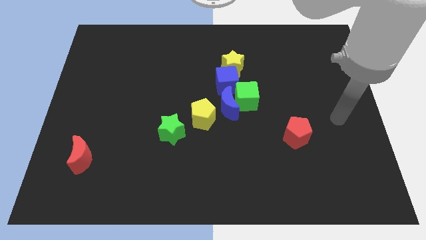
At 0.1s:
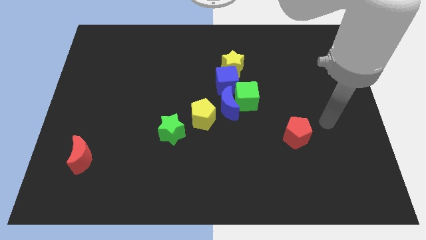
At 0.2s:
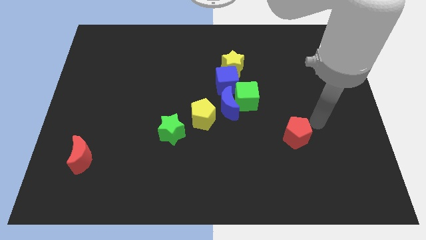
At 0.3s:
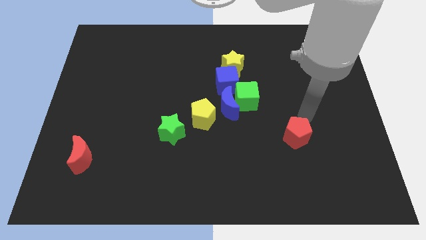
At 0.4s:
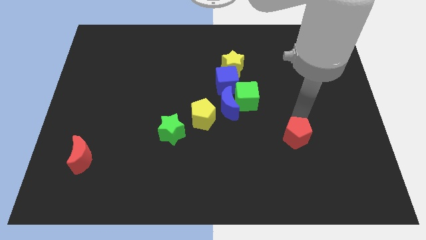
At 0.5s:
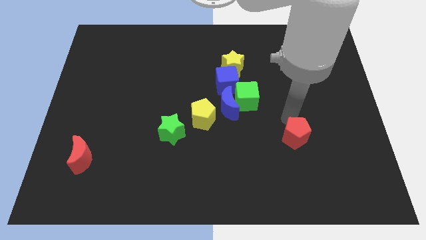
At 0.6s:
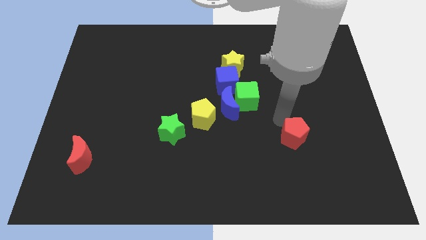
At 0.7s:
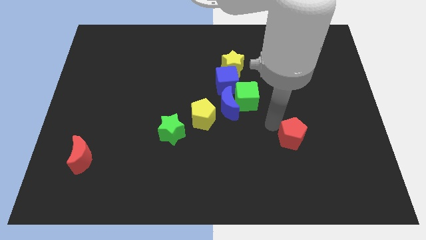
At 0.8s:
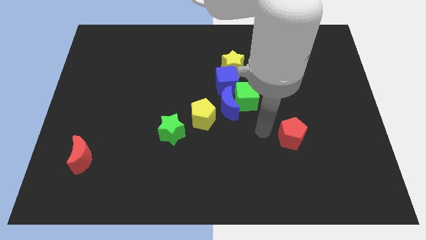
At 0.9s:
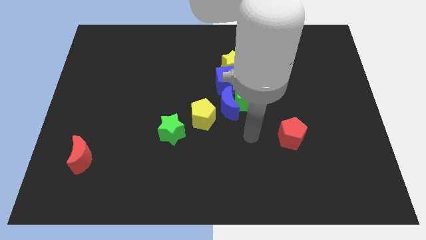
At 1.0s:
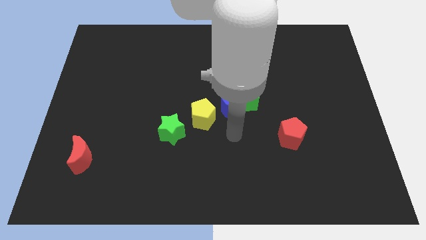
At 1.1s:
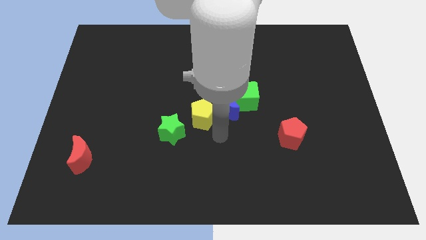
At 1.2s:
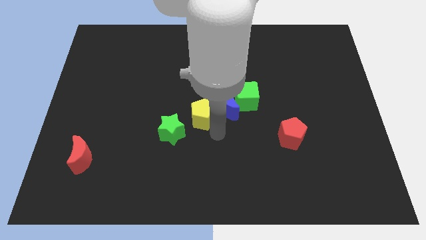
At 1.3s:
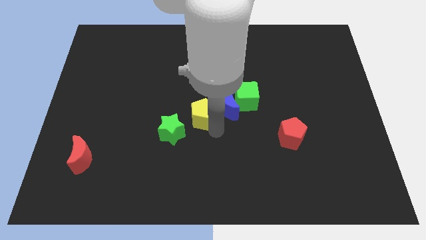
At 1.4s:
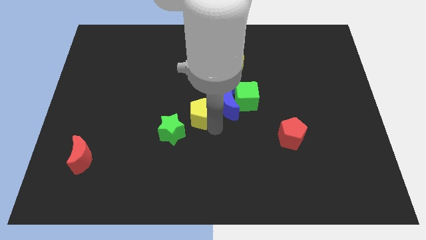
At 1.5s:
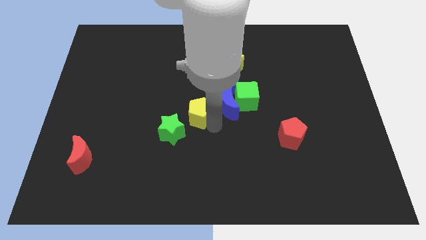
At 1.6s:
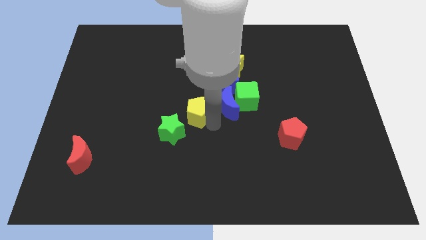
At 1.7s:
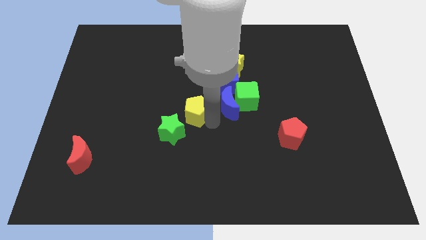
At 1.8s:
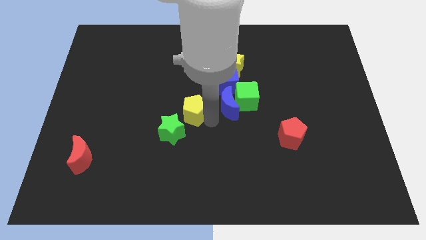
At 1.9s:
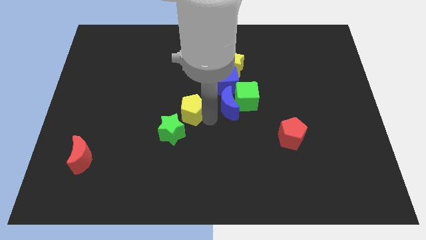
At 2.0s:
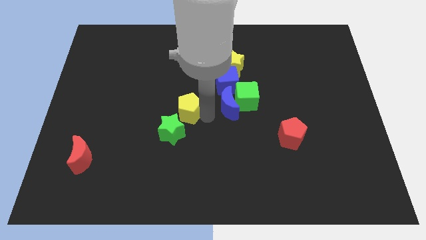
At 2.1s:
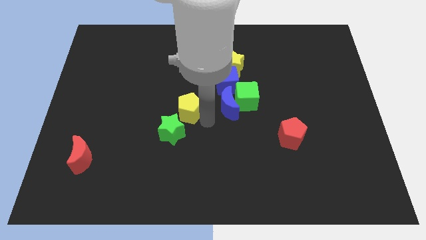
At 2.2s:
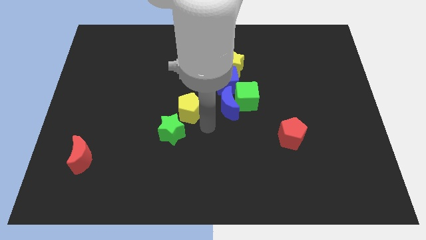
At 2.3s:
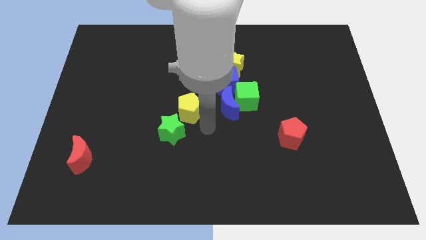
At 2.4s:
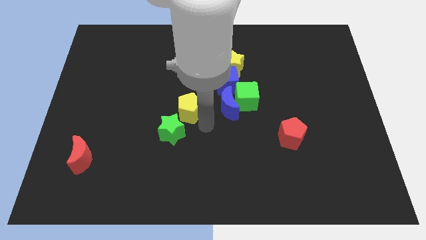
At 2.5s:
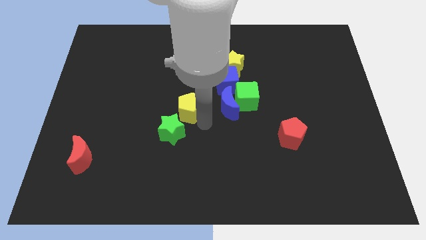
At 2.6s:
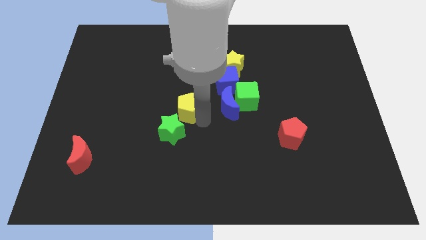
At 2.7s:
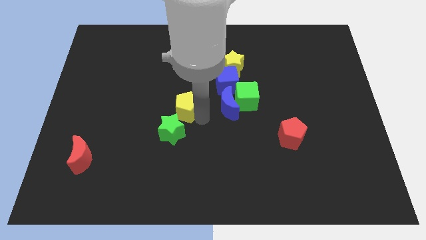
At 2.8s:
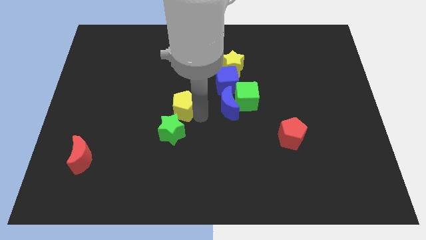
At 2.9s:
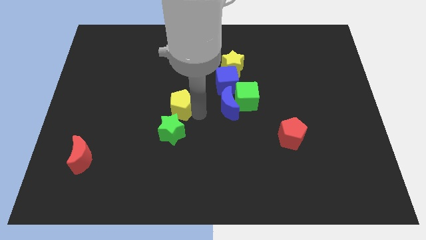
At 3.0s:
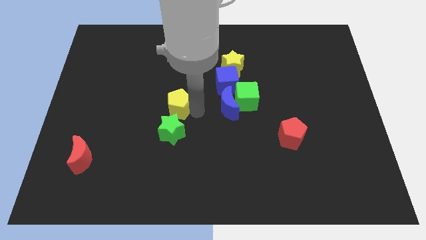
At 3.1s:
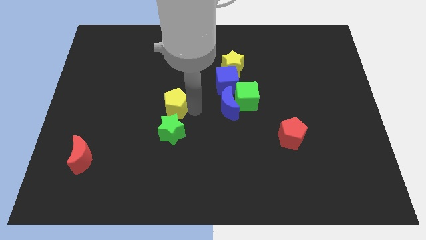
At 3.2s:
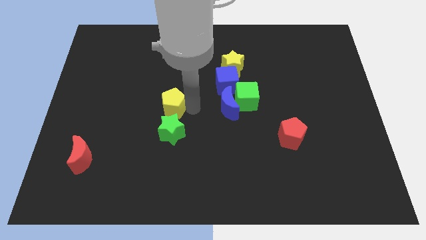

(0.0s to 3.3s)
move the yellow pentagon upwards and left somewhat

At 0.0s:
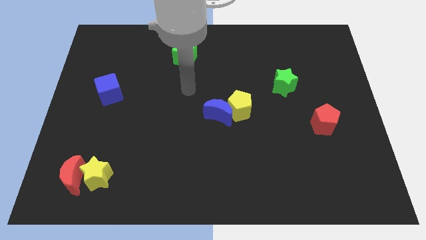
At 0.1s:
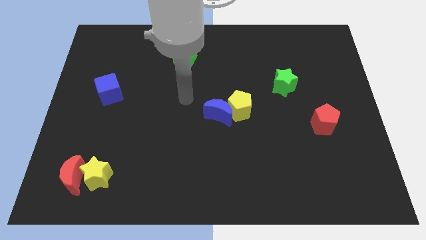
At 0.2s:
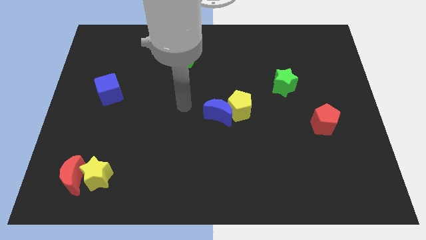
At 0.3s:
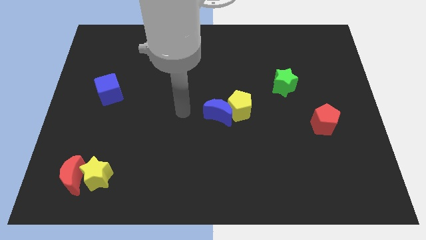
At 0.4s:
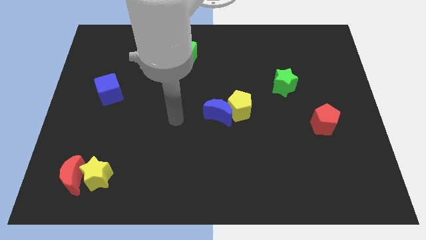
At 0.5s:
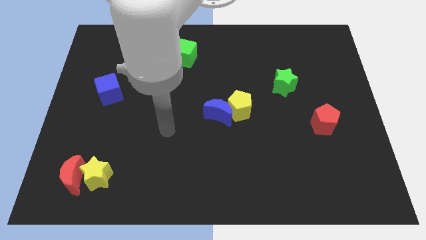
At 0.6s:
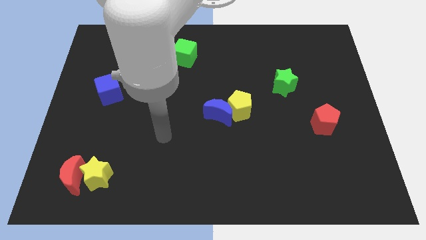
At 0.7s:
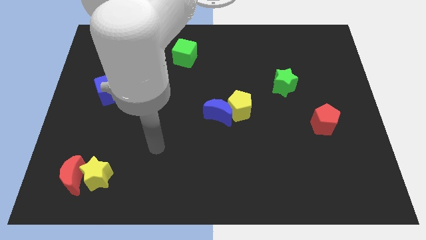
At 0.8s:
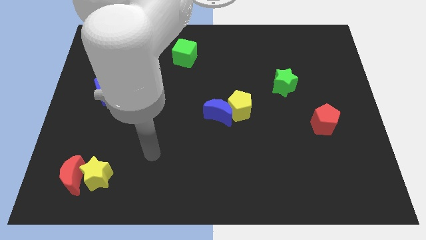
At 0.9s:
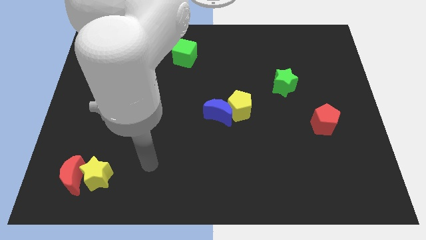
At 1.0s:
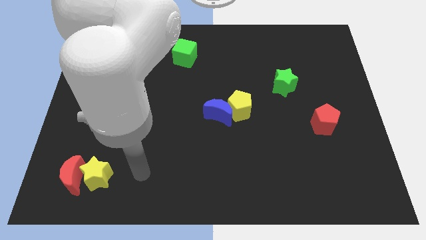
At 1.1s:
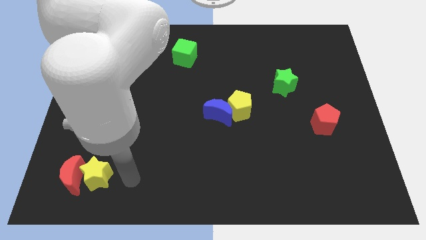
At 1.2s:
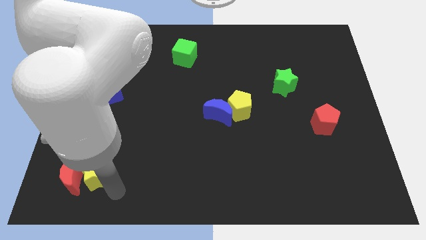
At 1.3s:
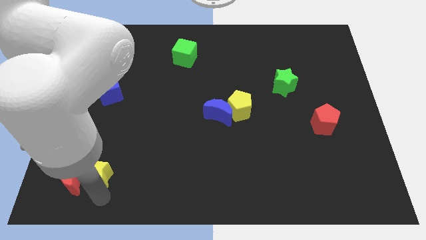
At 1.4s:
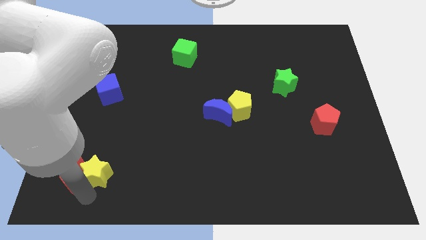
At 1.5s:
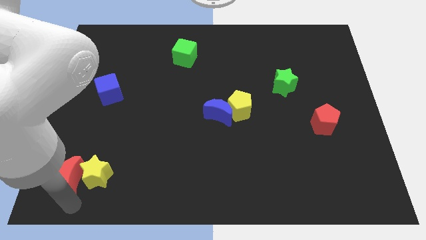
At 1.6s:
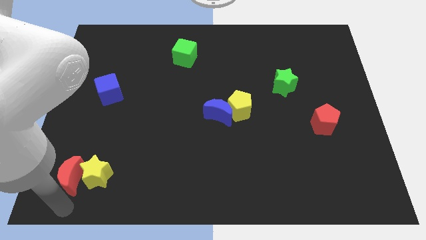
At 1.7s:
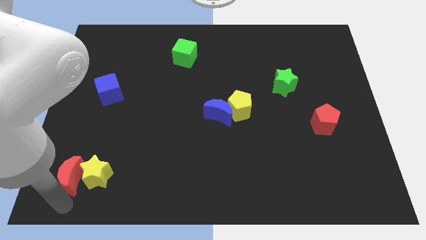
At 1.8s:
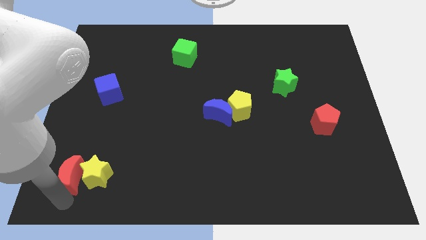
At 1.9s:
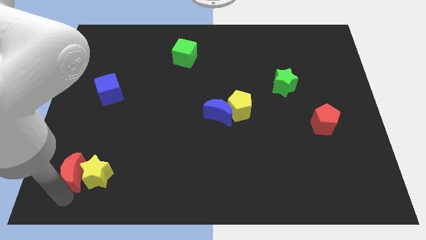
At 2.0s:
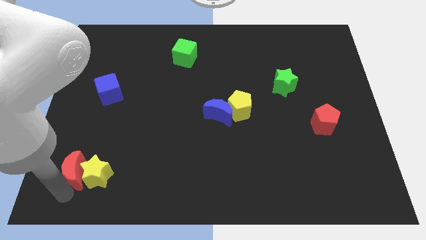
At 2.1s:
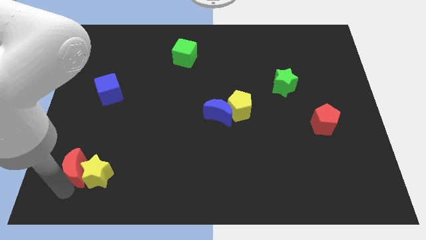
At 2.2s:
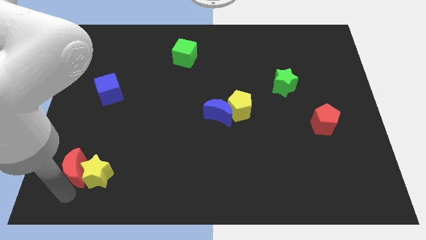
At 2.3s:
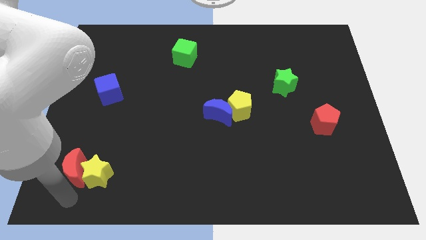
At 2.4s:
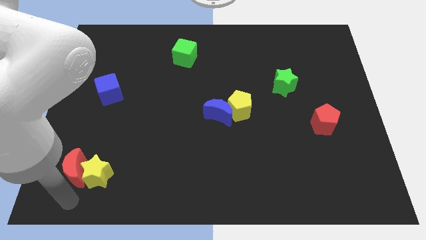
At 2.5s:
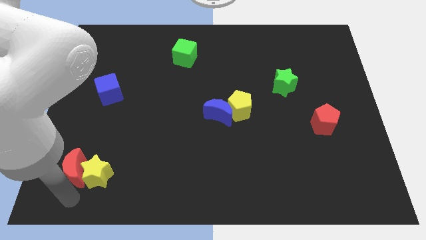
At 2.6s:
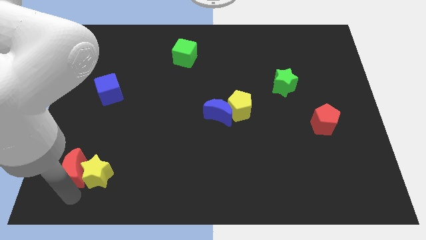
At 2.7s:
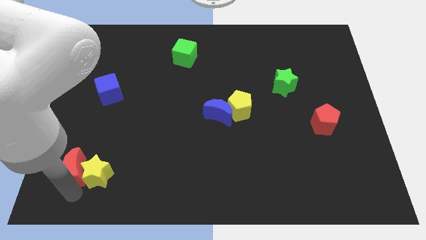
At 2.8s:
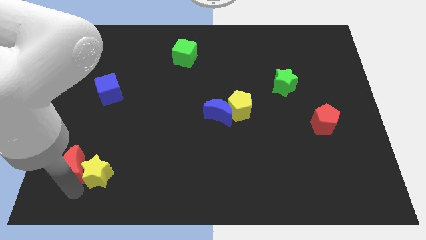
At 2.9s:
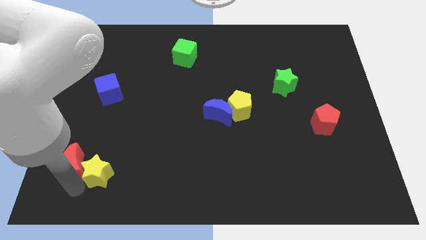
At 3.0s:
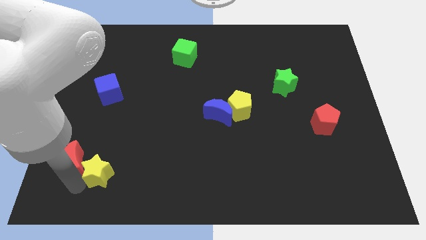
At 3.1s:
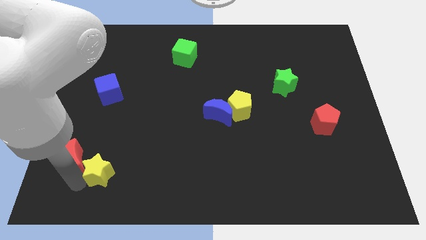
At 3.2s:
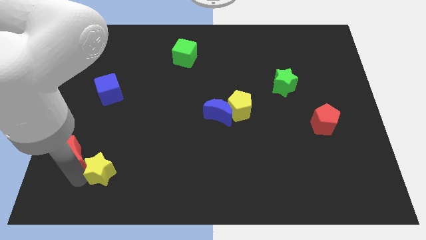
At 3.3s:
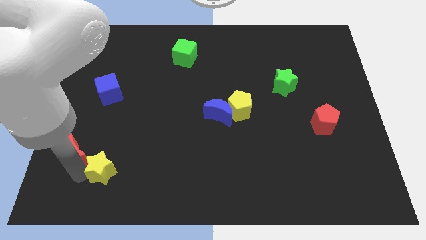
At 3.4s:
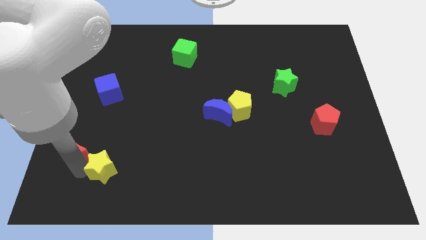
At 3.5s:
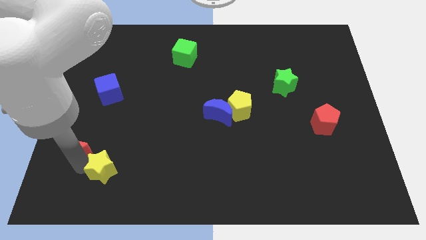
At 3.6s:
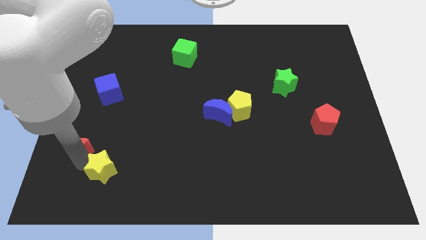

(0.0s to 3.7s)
slightly slide the red moon up

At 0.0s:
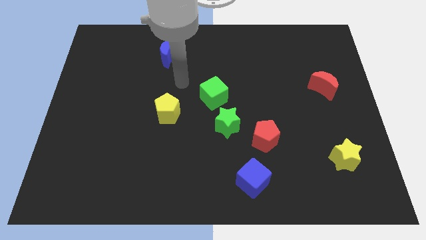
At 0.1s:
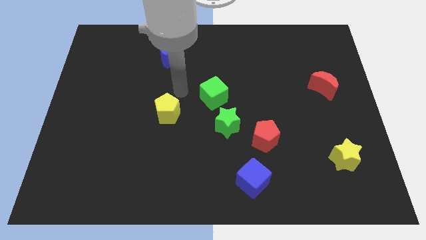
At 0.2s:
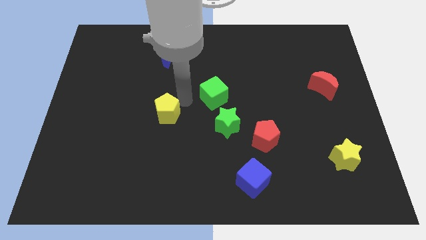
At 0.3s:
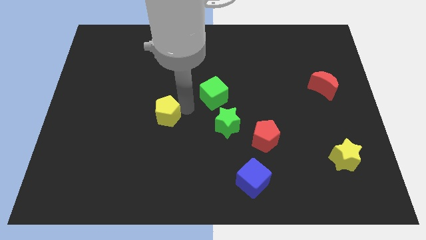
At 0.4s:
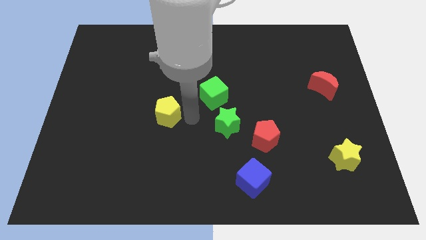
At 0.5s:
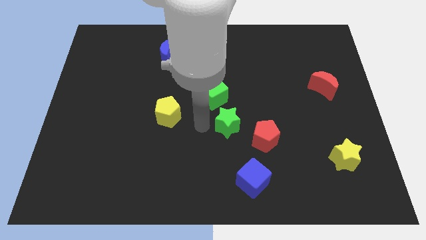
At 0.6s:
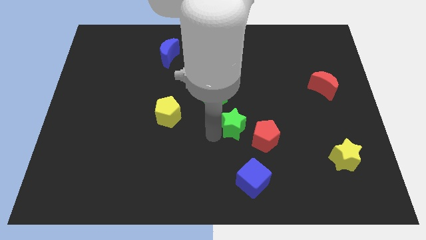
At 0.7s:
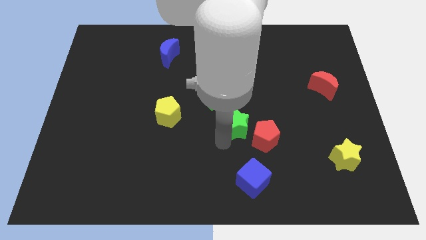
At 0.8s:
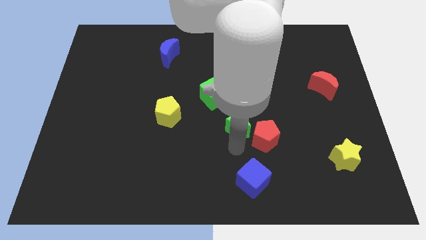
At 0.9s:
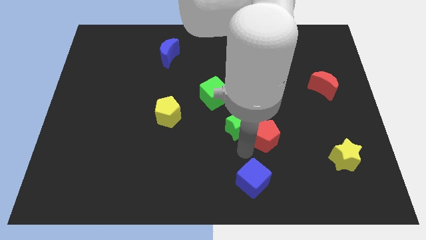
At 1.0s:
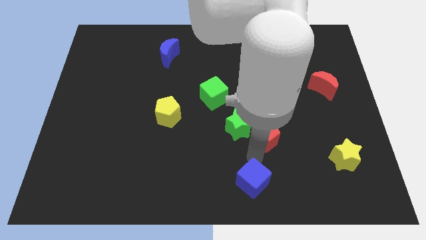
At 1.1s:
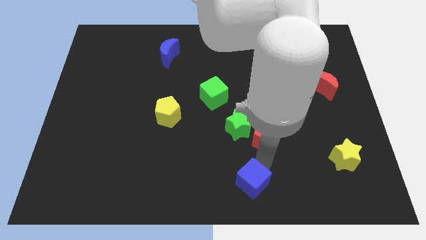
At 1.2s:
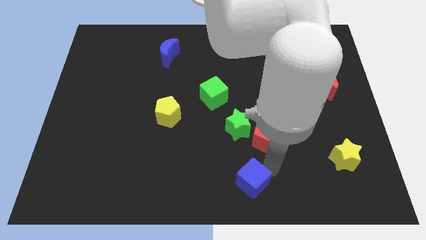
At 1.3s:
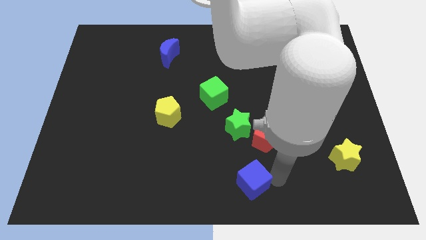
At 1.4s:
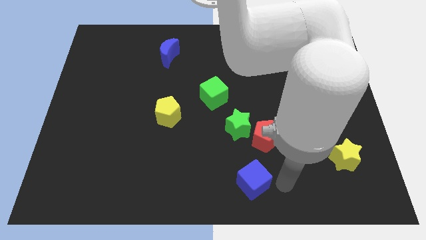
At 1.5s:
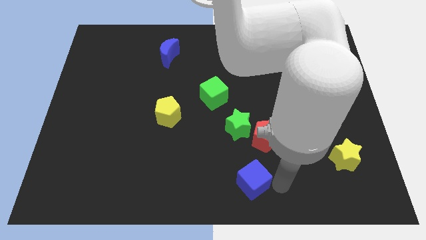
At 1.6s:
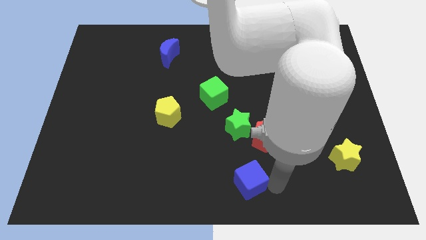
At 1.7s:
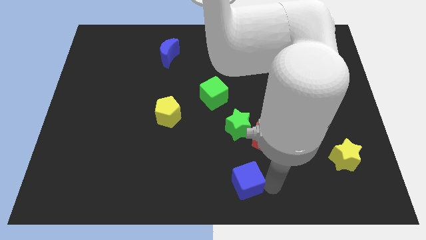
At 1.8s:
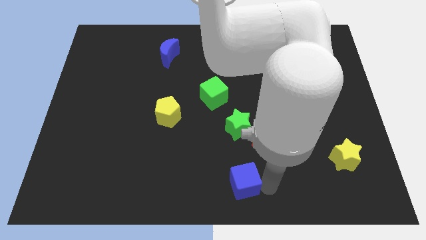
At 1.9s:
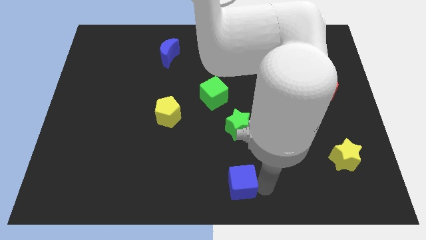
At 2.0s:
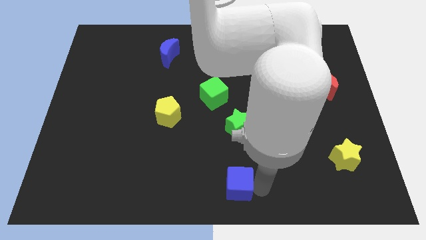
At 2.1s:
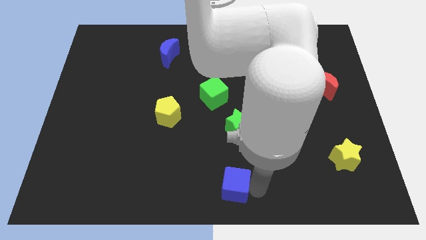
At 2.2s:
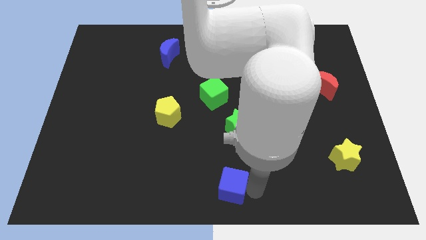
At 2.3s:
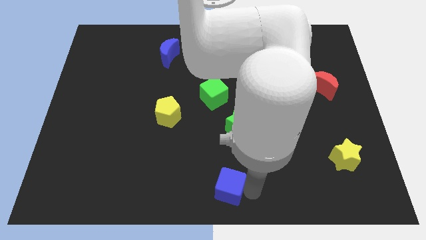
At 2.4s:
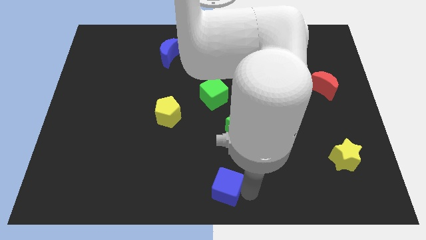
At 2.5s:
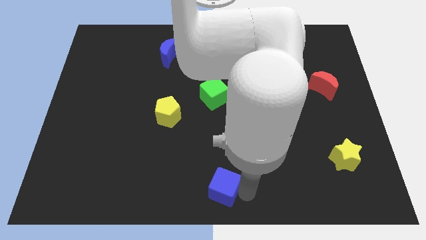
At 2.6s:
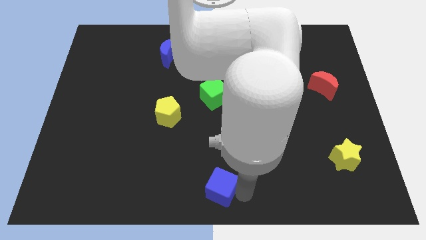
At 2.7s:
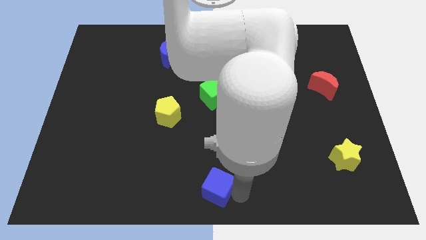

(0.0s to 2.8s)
push the blue cube left a bit
